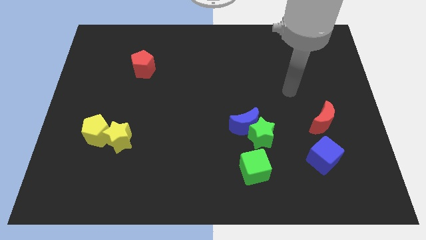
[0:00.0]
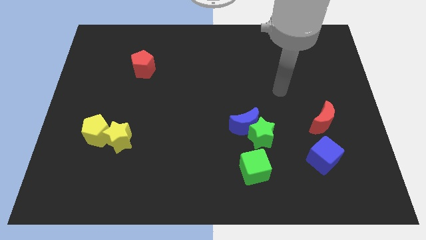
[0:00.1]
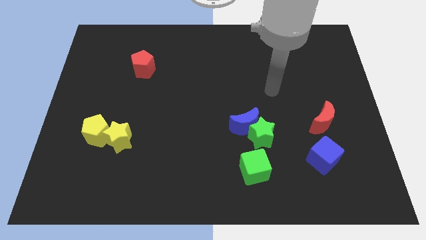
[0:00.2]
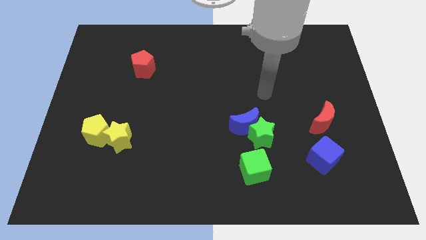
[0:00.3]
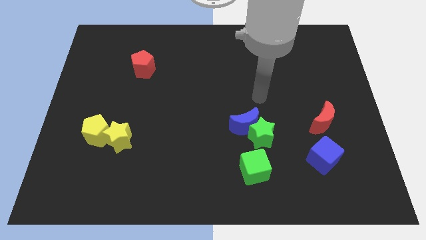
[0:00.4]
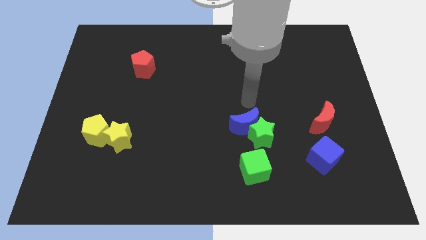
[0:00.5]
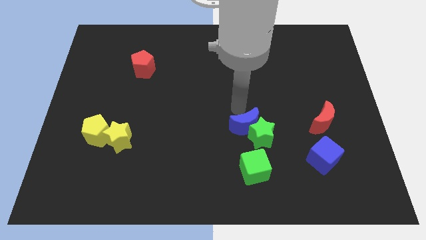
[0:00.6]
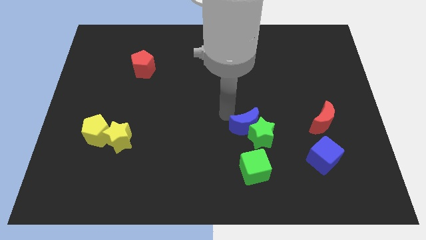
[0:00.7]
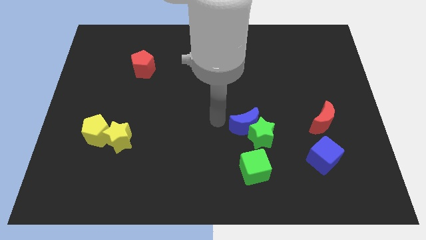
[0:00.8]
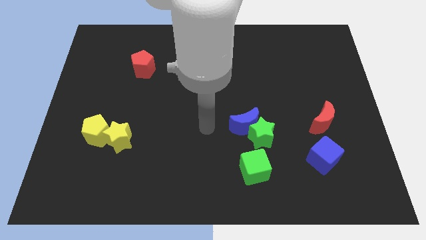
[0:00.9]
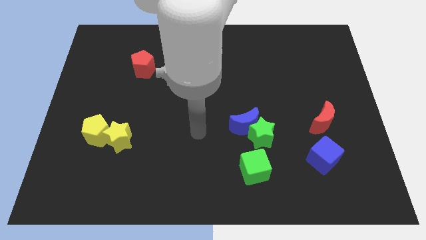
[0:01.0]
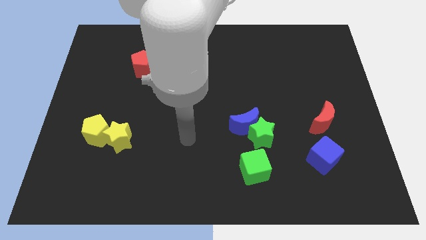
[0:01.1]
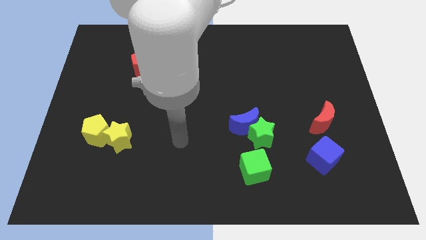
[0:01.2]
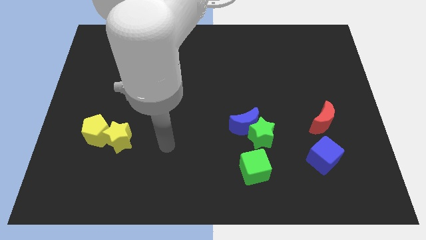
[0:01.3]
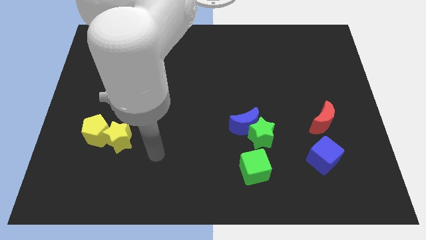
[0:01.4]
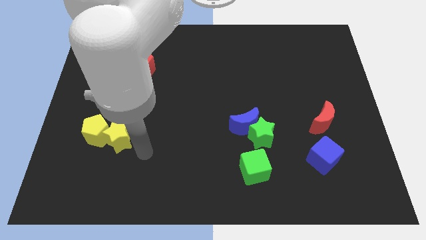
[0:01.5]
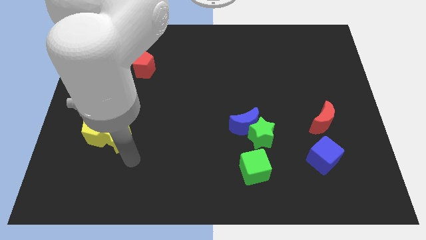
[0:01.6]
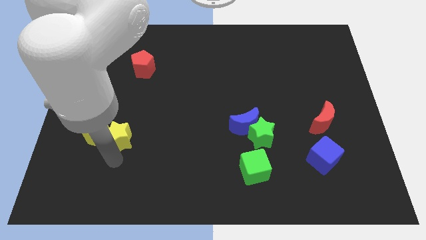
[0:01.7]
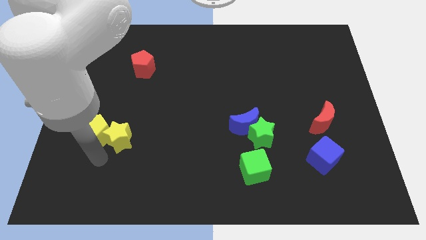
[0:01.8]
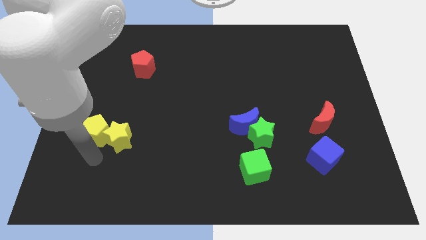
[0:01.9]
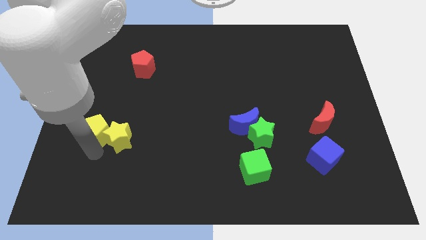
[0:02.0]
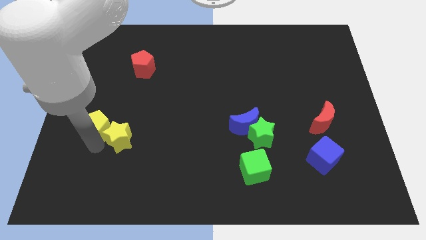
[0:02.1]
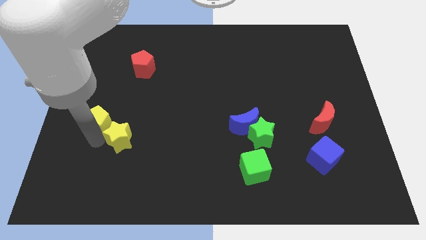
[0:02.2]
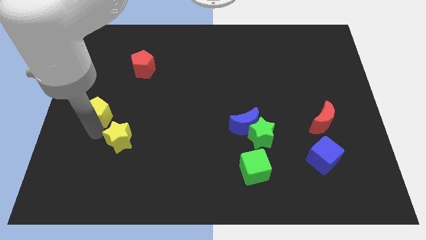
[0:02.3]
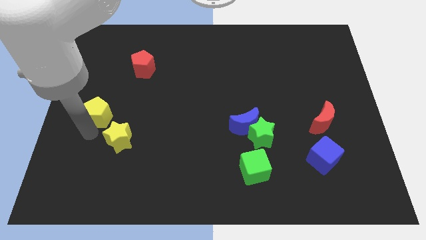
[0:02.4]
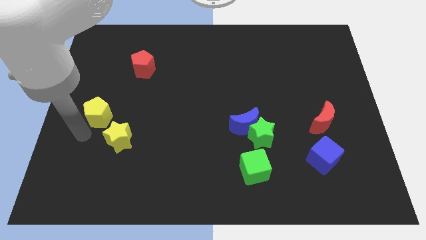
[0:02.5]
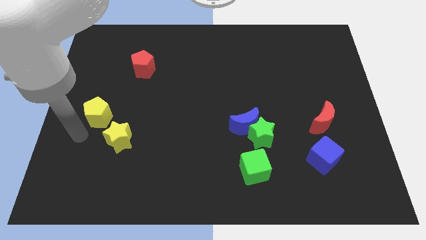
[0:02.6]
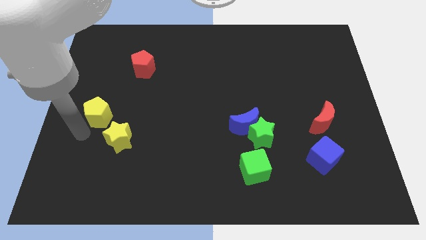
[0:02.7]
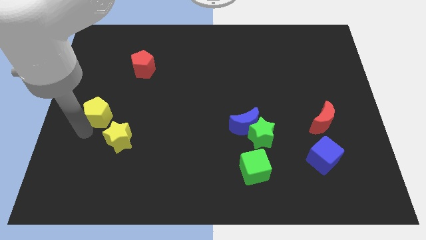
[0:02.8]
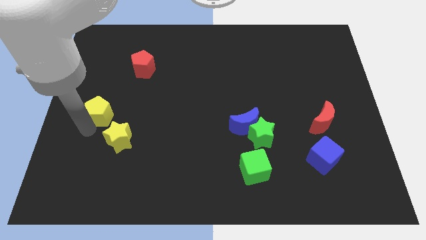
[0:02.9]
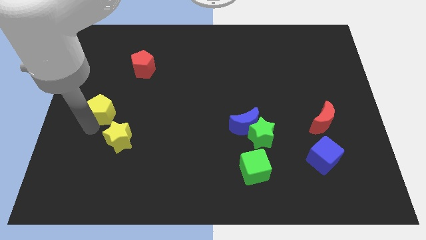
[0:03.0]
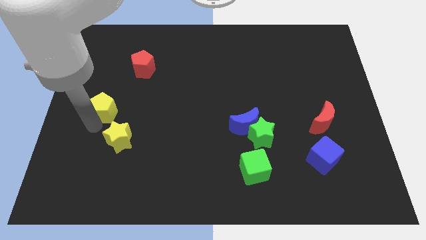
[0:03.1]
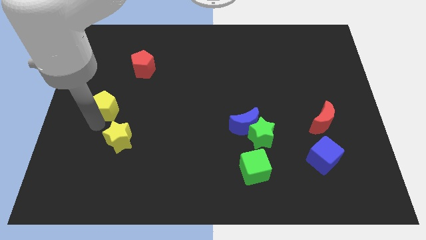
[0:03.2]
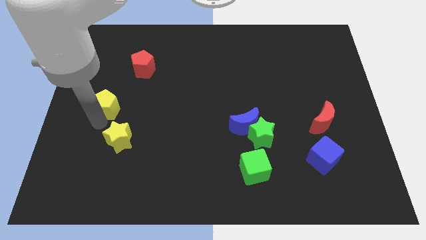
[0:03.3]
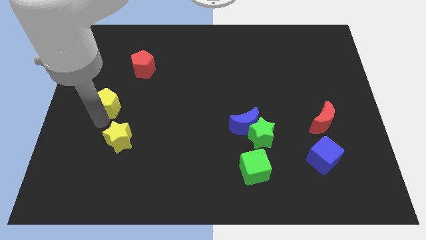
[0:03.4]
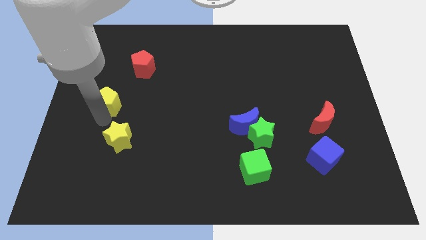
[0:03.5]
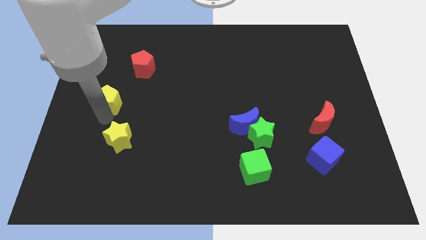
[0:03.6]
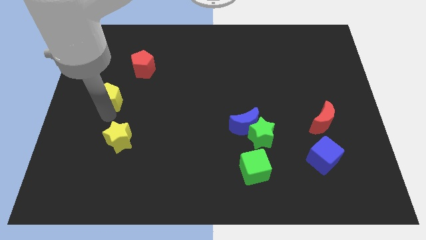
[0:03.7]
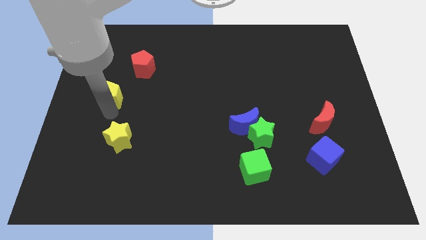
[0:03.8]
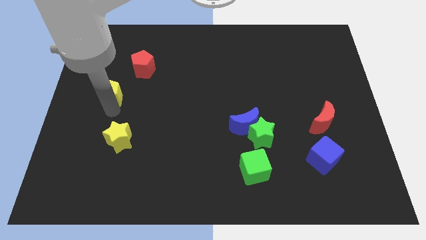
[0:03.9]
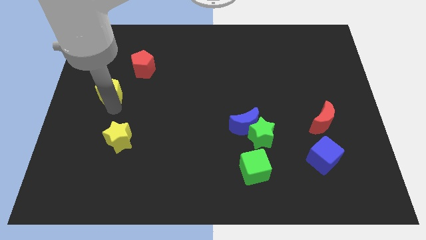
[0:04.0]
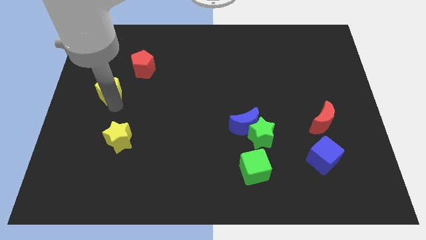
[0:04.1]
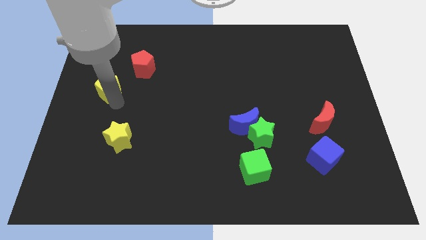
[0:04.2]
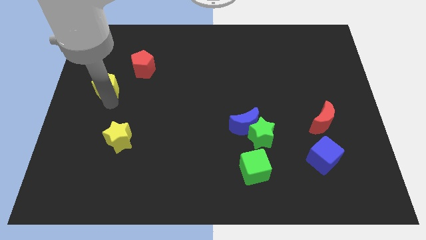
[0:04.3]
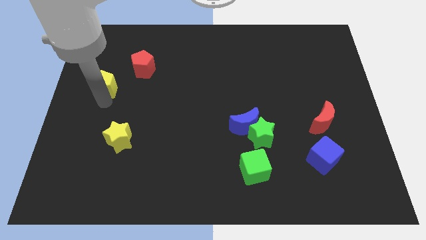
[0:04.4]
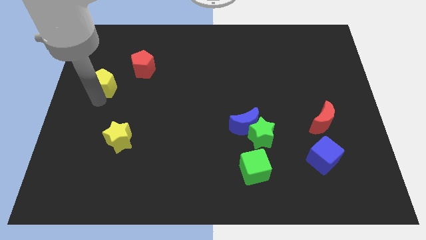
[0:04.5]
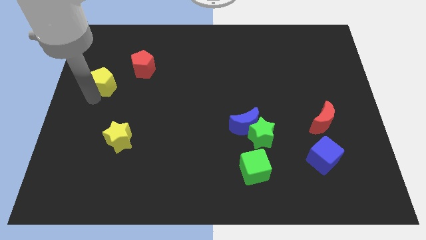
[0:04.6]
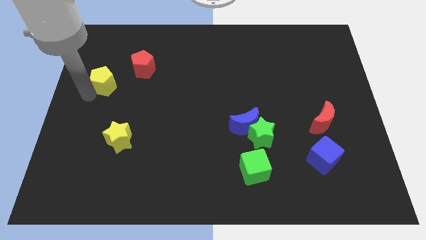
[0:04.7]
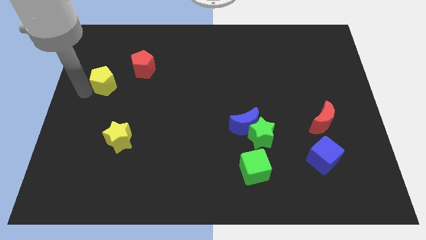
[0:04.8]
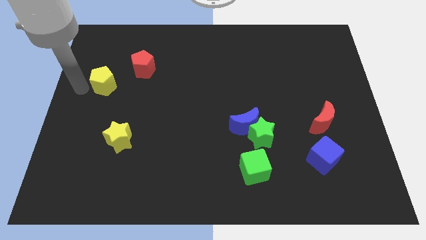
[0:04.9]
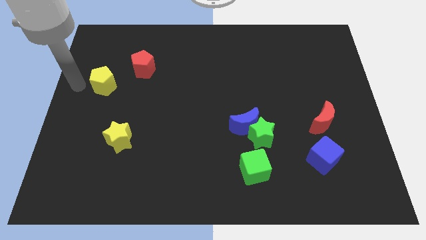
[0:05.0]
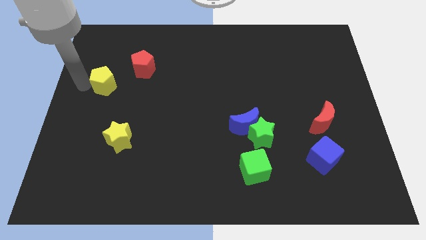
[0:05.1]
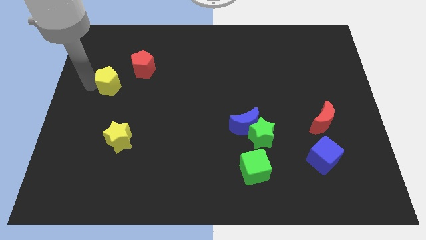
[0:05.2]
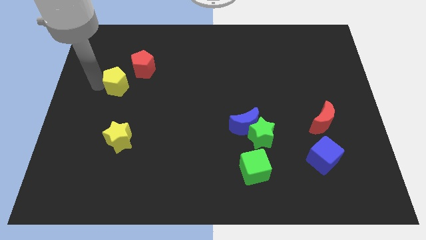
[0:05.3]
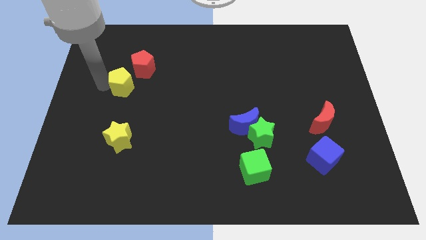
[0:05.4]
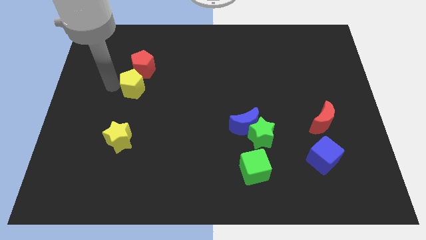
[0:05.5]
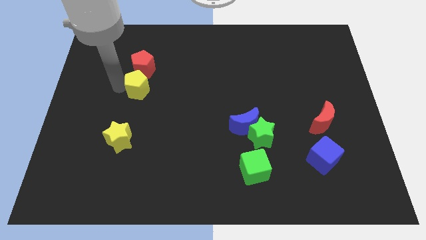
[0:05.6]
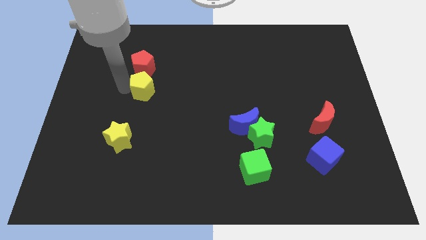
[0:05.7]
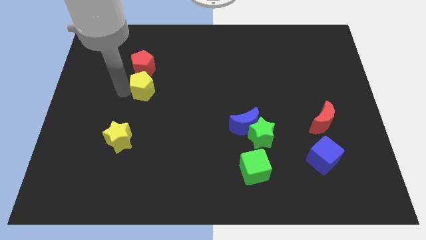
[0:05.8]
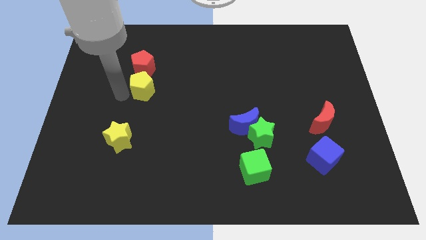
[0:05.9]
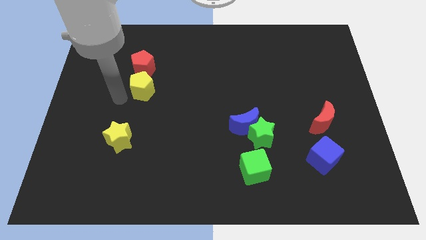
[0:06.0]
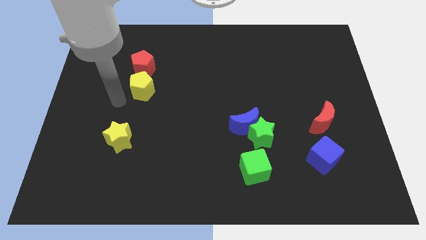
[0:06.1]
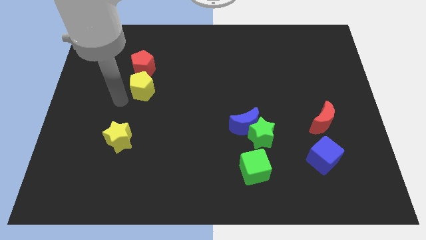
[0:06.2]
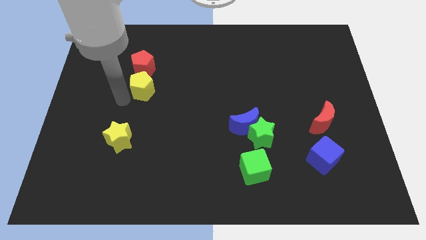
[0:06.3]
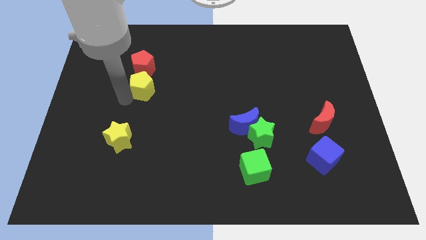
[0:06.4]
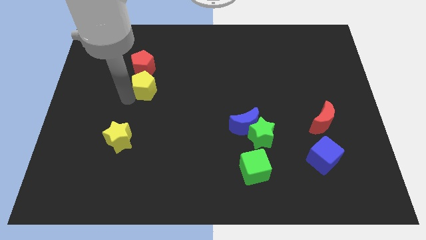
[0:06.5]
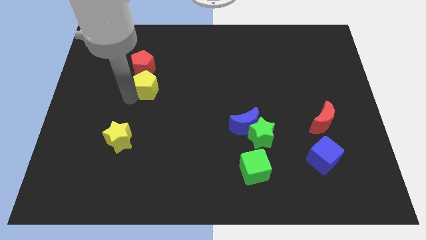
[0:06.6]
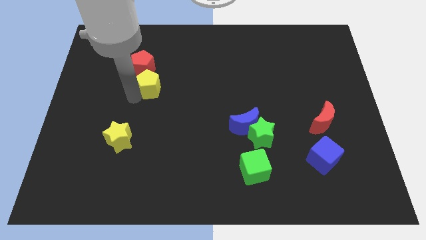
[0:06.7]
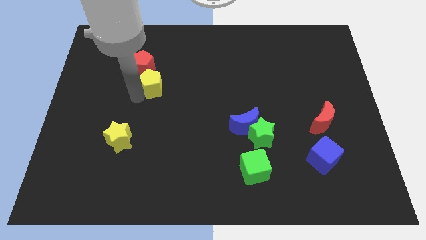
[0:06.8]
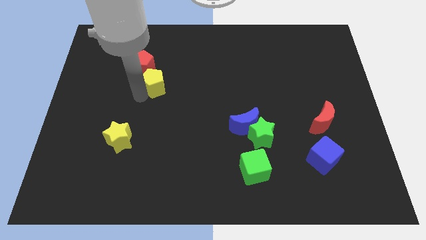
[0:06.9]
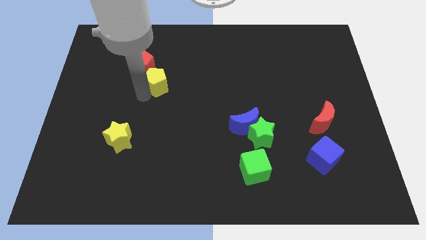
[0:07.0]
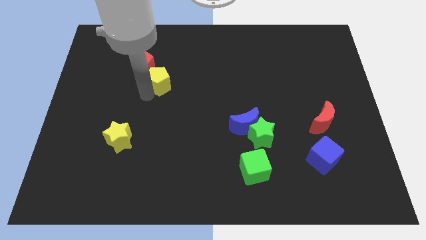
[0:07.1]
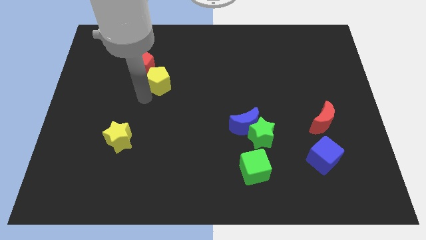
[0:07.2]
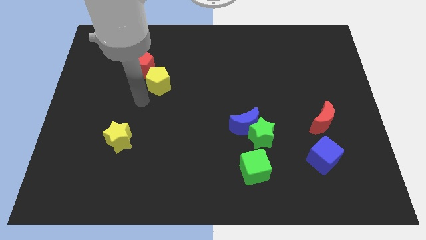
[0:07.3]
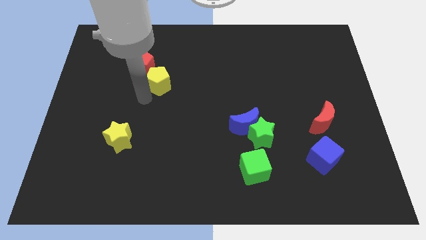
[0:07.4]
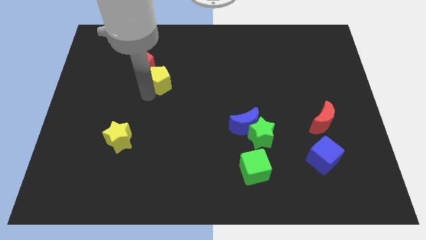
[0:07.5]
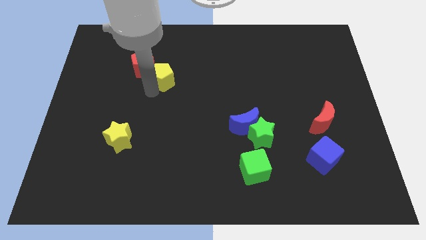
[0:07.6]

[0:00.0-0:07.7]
push the yellow pentagon upwards and right

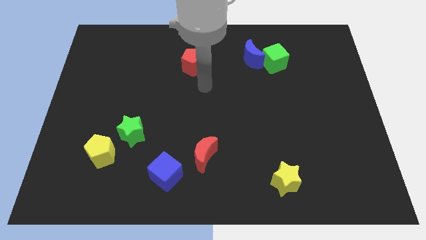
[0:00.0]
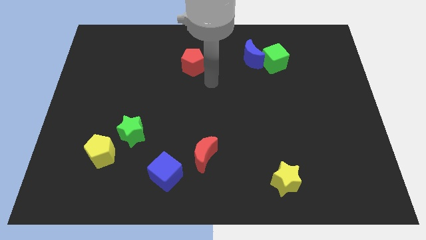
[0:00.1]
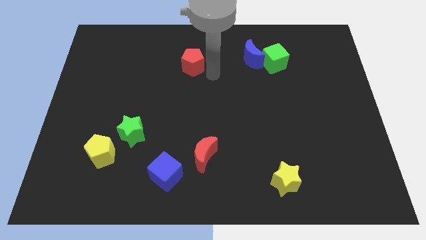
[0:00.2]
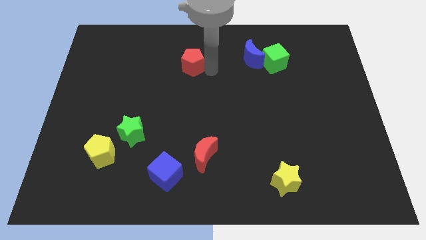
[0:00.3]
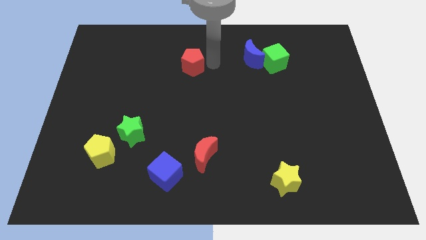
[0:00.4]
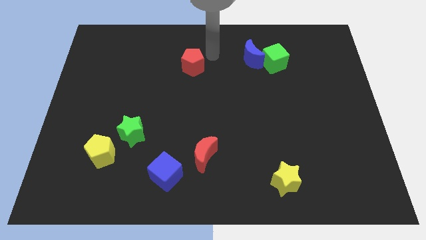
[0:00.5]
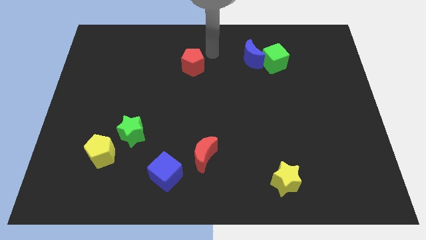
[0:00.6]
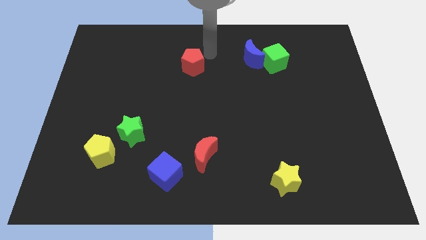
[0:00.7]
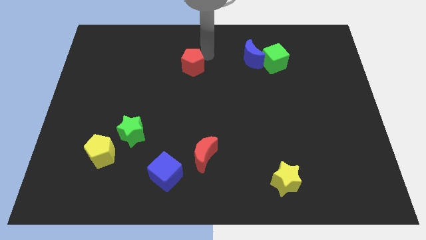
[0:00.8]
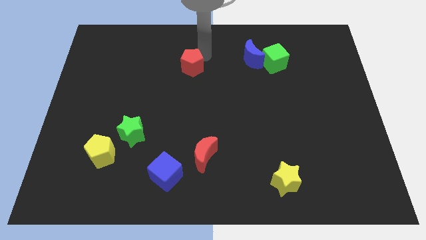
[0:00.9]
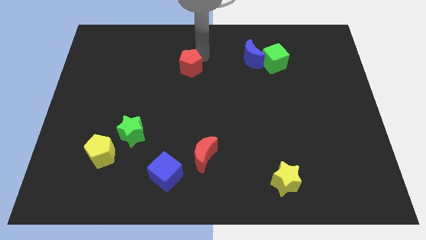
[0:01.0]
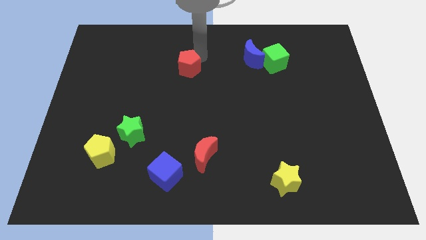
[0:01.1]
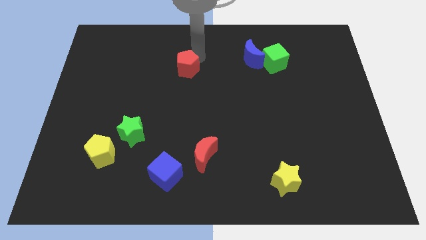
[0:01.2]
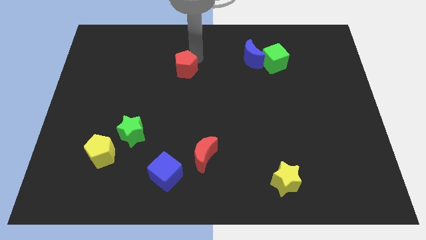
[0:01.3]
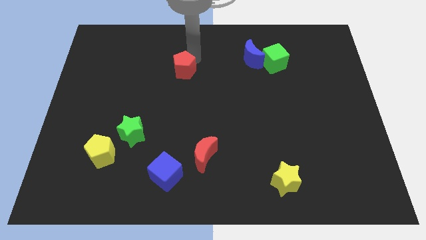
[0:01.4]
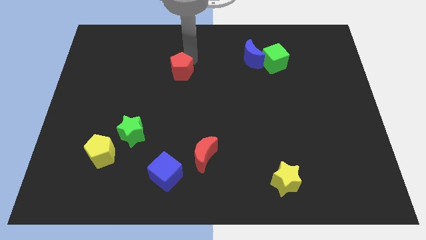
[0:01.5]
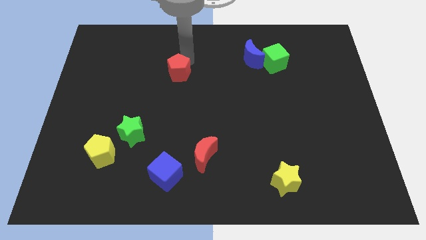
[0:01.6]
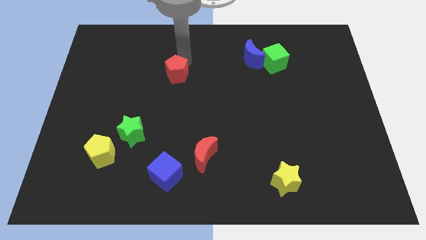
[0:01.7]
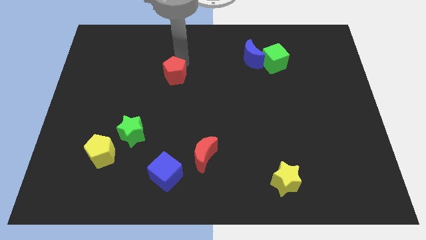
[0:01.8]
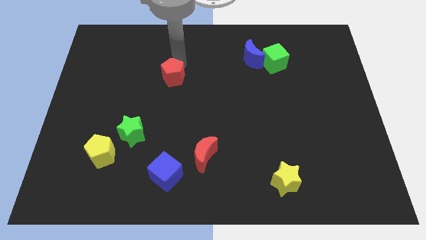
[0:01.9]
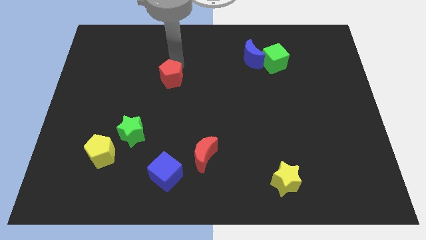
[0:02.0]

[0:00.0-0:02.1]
slide the red pentagon down and left slightly
